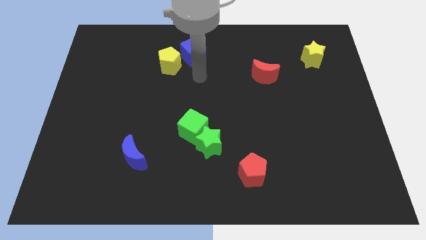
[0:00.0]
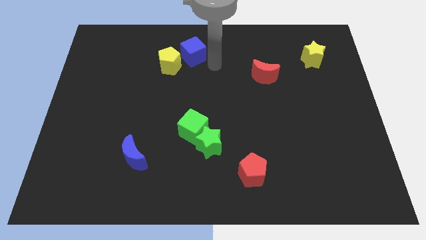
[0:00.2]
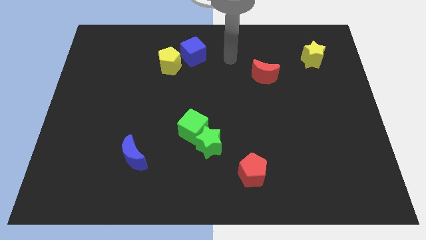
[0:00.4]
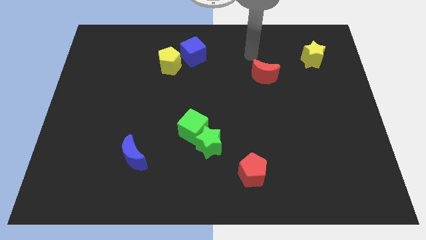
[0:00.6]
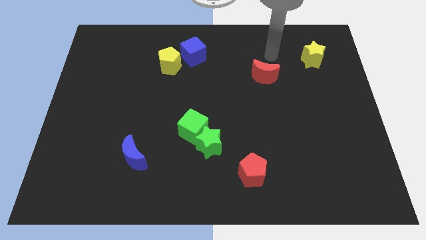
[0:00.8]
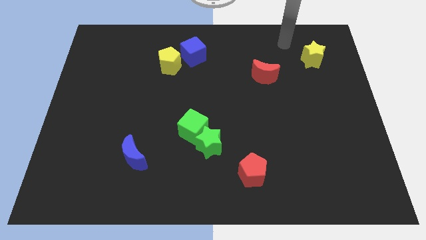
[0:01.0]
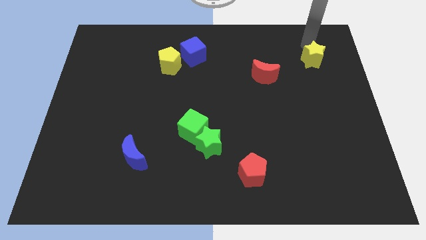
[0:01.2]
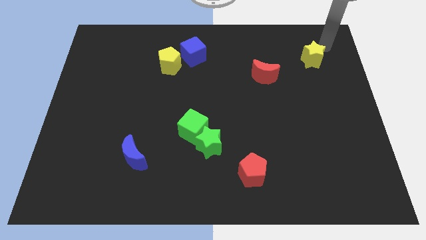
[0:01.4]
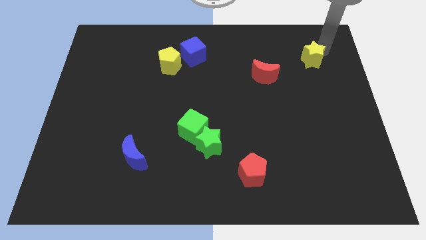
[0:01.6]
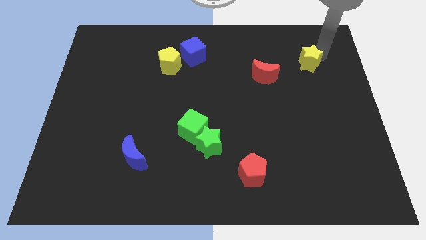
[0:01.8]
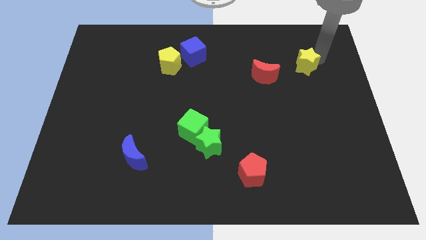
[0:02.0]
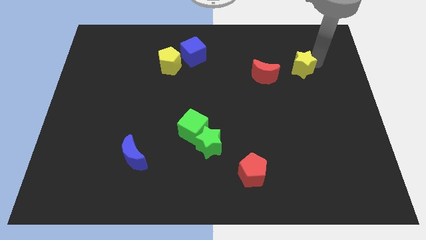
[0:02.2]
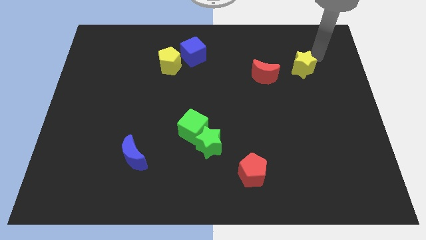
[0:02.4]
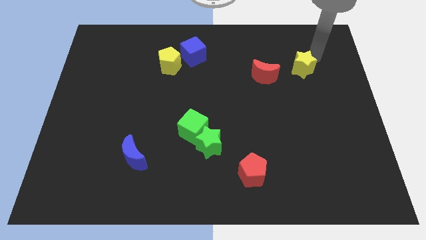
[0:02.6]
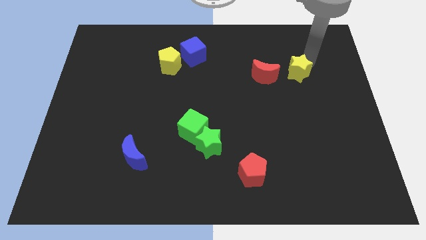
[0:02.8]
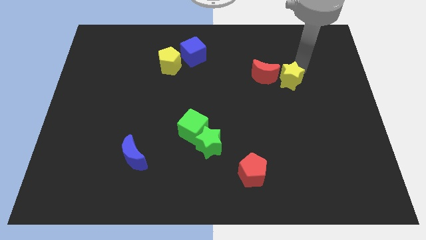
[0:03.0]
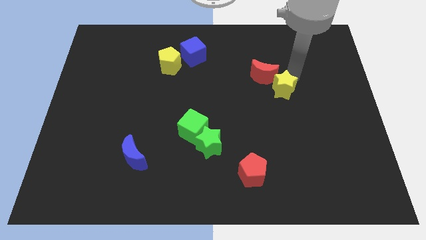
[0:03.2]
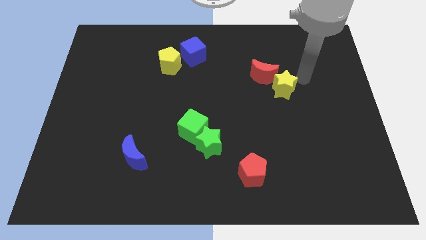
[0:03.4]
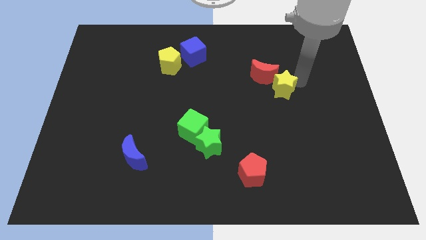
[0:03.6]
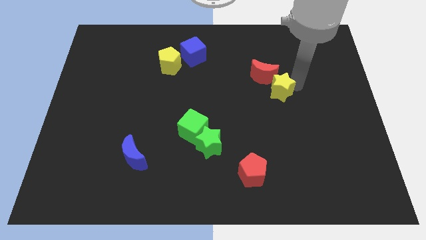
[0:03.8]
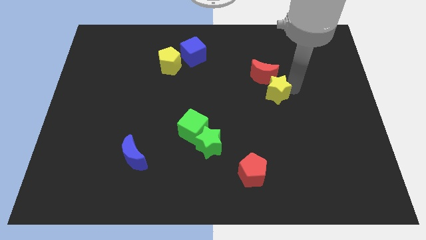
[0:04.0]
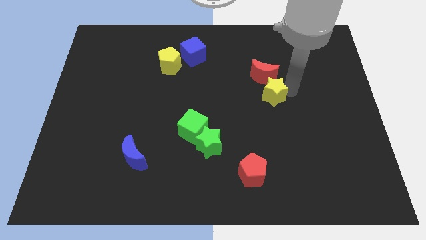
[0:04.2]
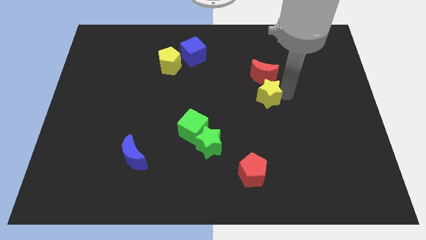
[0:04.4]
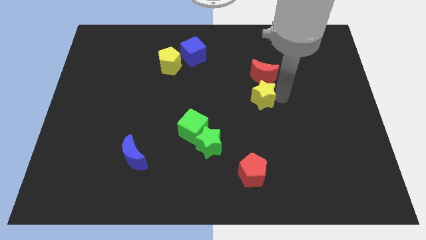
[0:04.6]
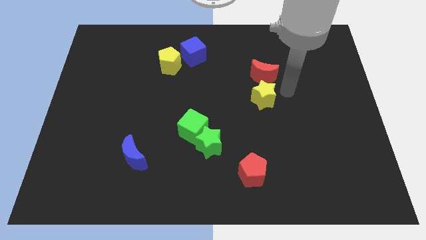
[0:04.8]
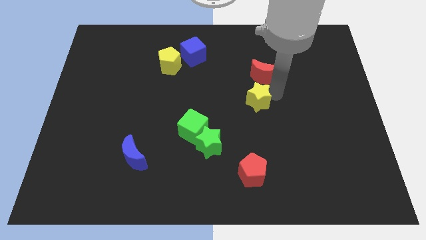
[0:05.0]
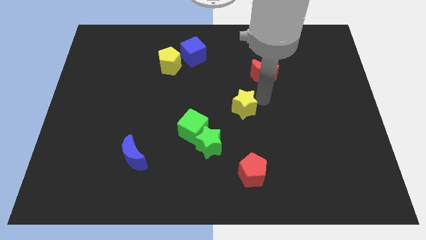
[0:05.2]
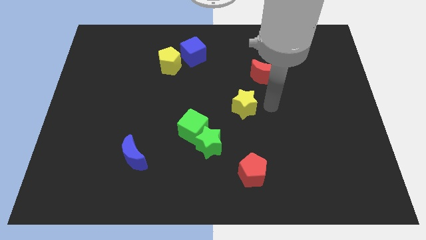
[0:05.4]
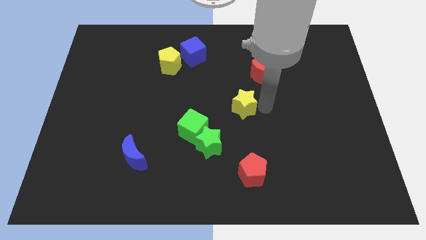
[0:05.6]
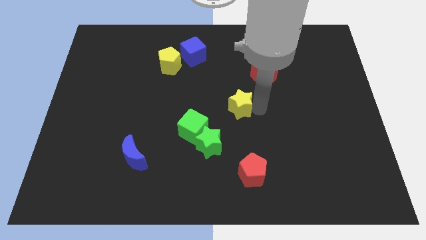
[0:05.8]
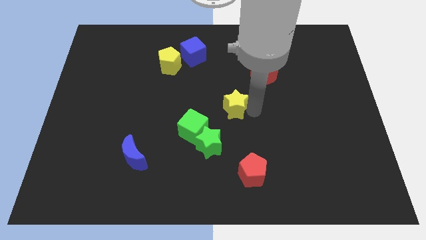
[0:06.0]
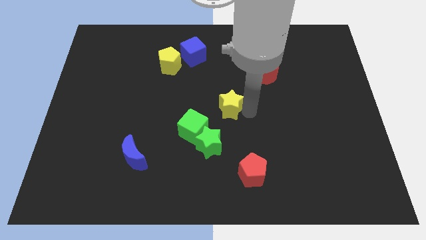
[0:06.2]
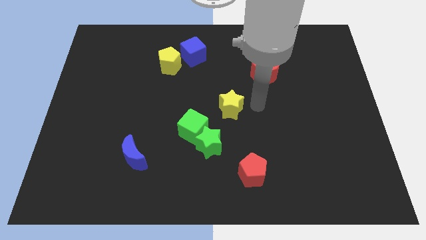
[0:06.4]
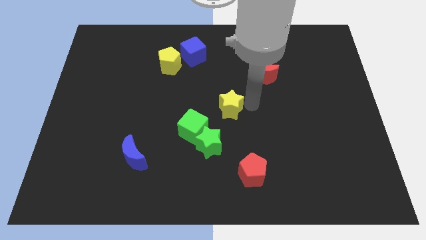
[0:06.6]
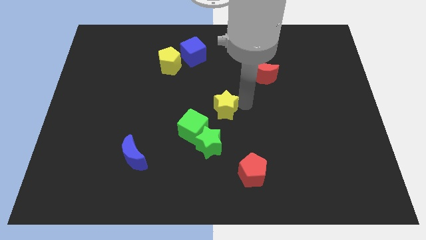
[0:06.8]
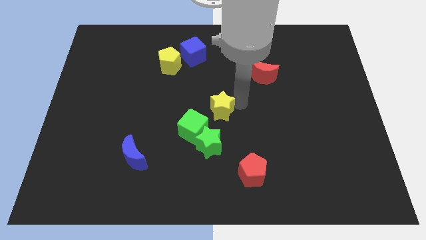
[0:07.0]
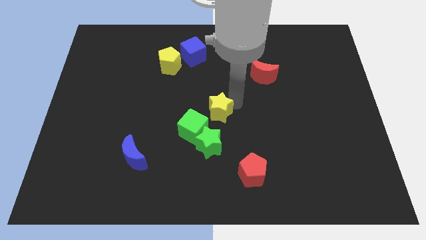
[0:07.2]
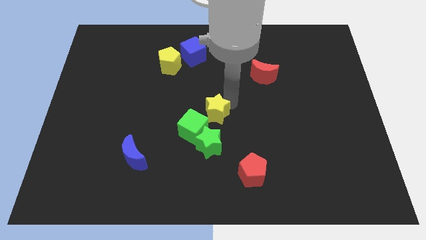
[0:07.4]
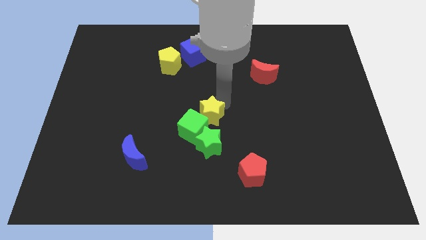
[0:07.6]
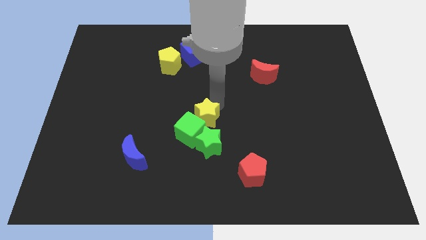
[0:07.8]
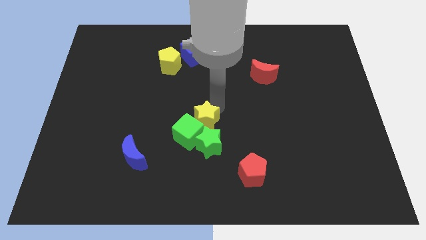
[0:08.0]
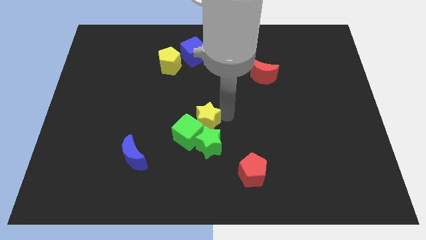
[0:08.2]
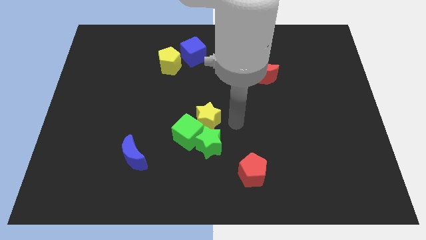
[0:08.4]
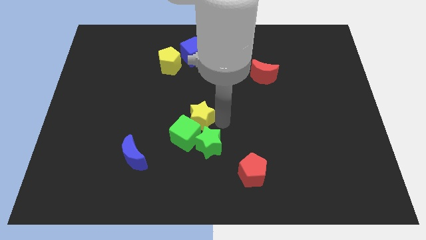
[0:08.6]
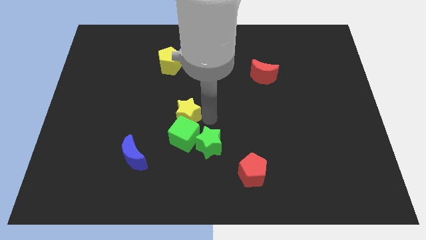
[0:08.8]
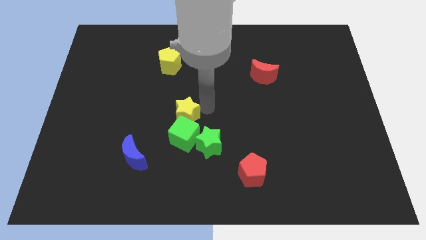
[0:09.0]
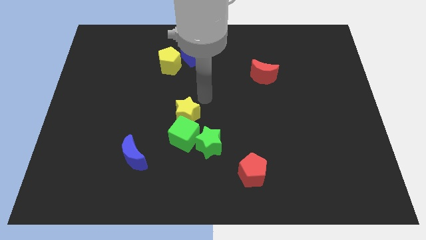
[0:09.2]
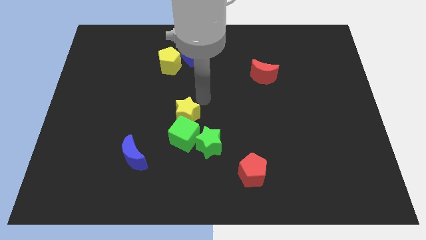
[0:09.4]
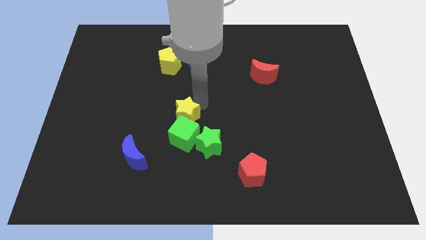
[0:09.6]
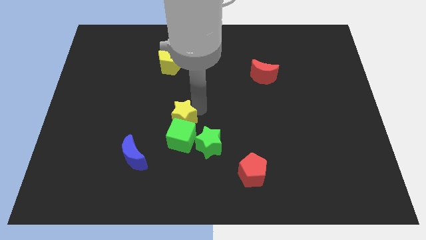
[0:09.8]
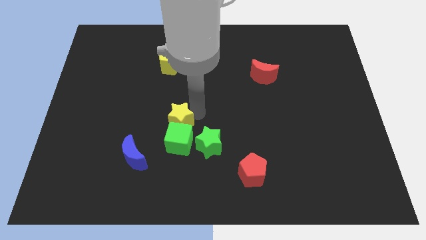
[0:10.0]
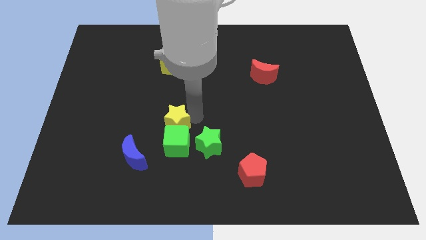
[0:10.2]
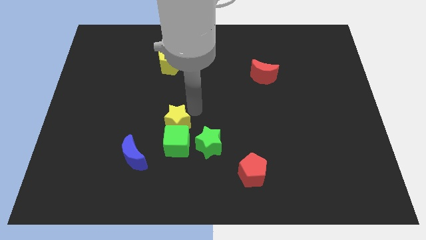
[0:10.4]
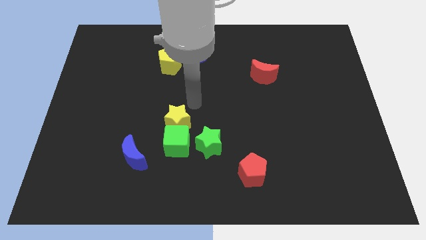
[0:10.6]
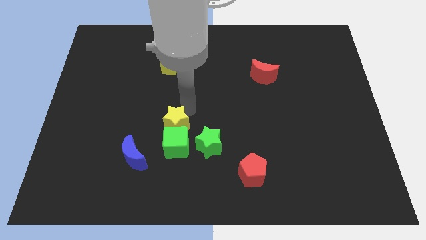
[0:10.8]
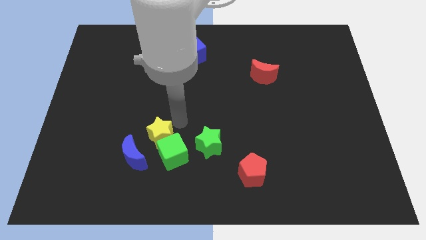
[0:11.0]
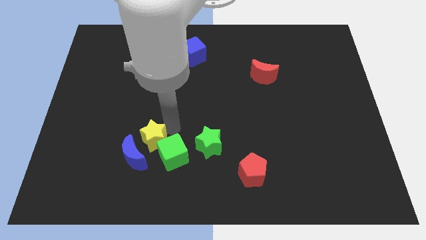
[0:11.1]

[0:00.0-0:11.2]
put the yellow star towards the blue moon
